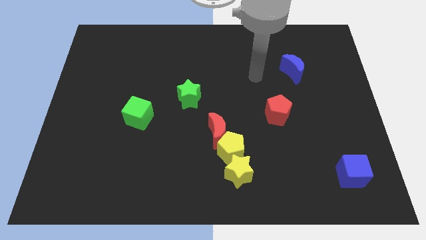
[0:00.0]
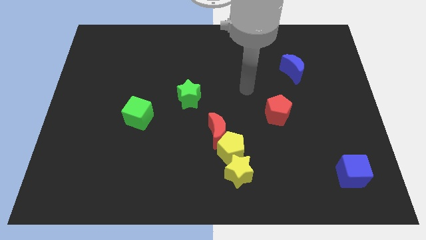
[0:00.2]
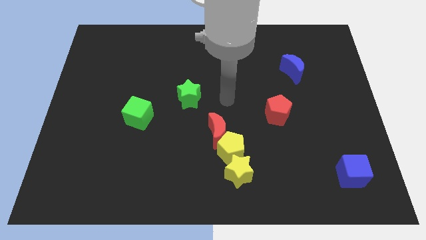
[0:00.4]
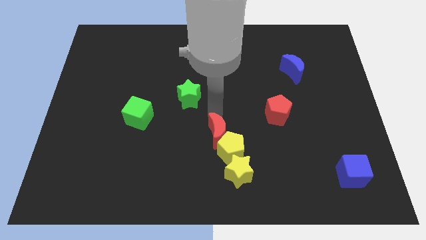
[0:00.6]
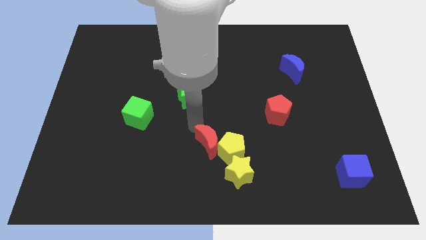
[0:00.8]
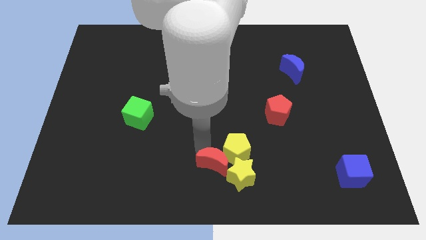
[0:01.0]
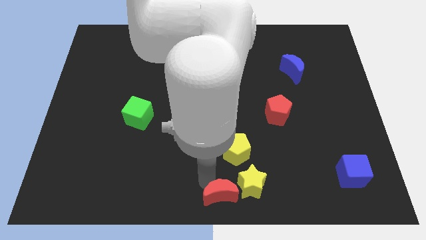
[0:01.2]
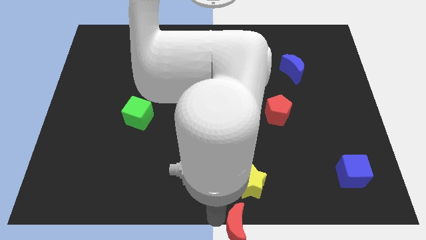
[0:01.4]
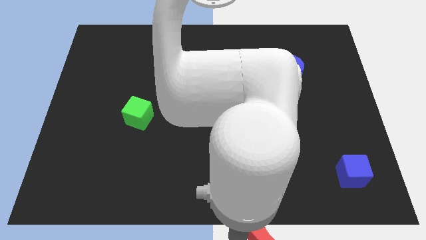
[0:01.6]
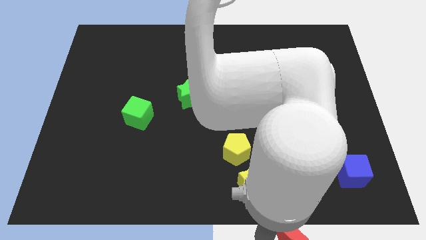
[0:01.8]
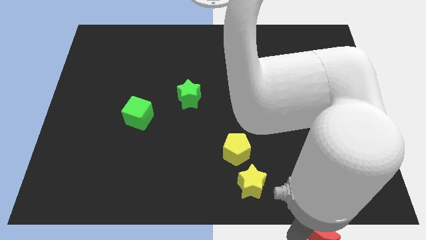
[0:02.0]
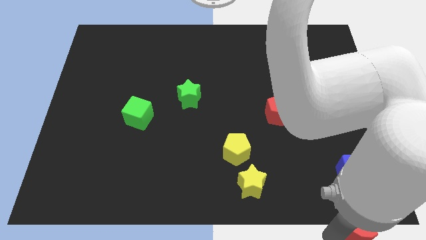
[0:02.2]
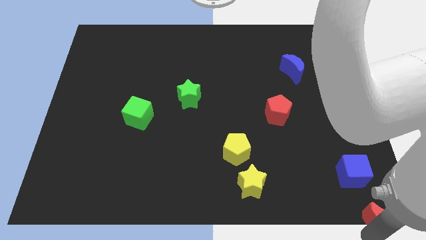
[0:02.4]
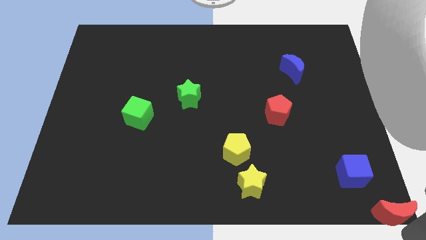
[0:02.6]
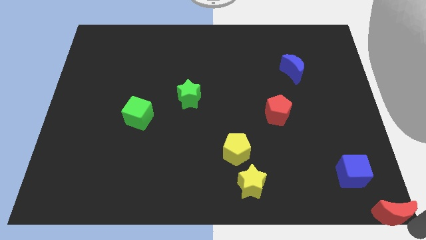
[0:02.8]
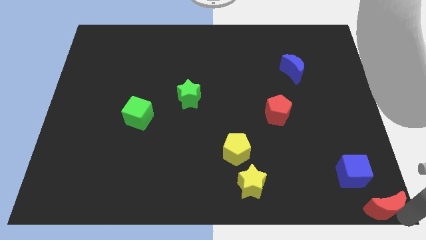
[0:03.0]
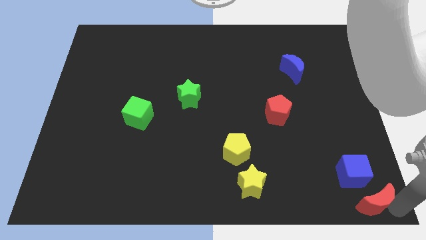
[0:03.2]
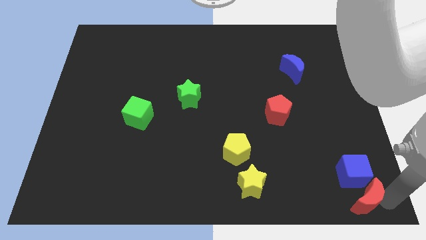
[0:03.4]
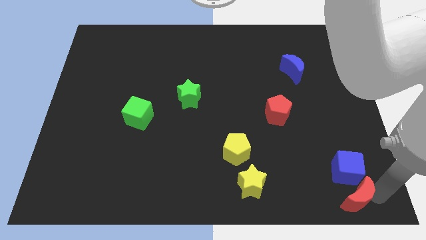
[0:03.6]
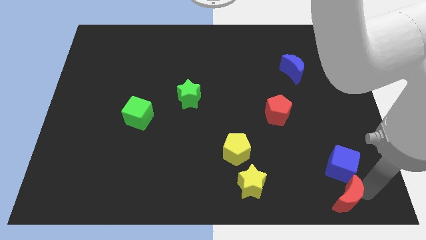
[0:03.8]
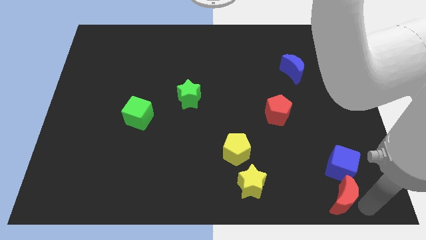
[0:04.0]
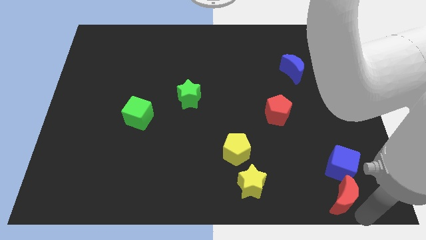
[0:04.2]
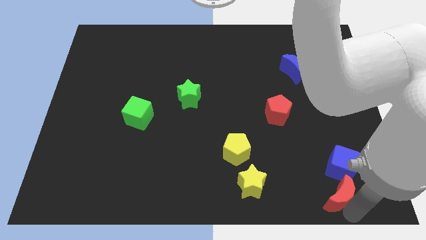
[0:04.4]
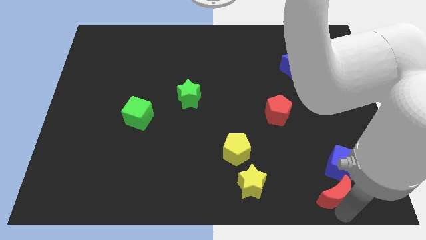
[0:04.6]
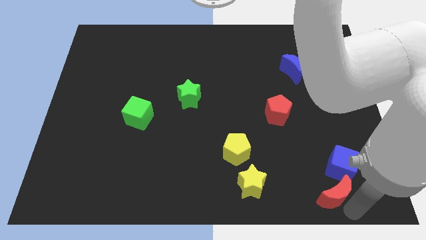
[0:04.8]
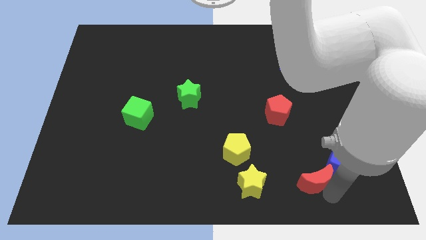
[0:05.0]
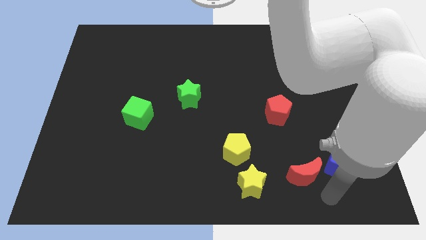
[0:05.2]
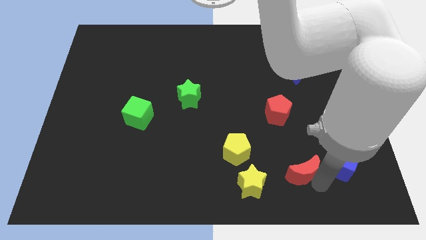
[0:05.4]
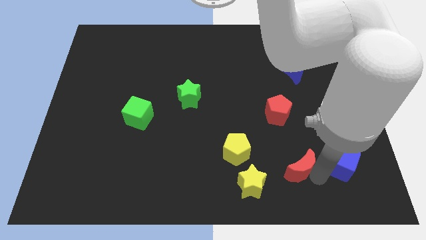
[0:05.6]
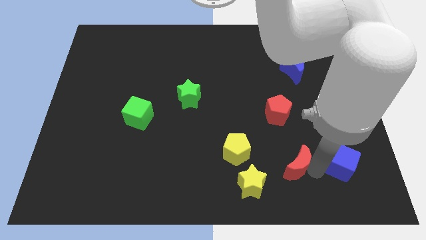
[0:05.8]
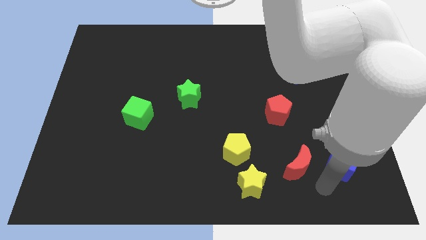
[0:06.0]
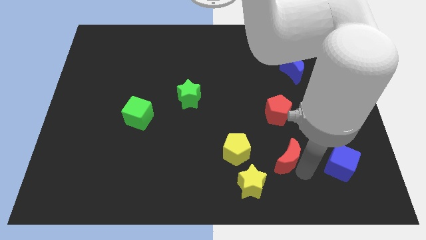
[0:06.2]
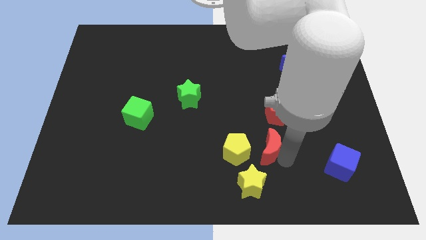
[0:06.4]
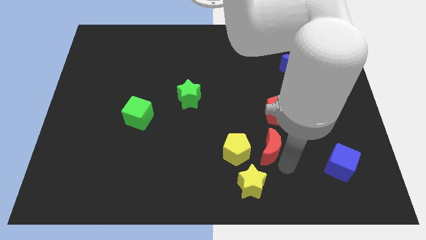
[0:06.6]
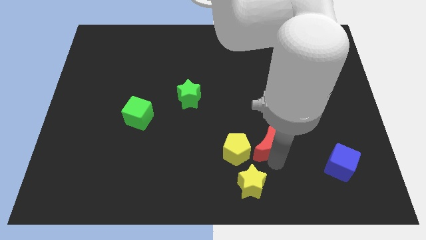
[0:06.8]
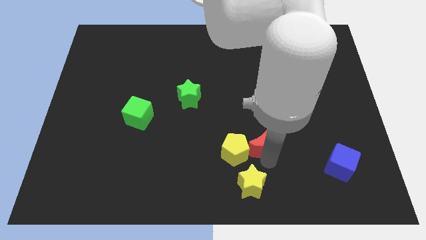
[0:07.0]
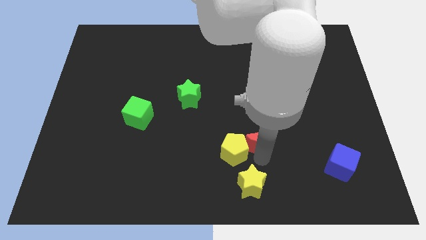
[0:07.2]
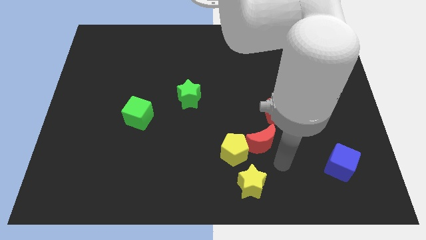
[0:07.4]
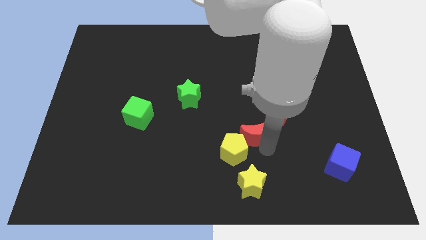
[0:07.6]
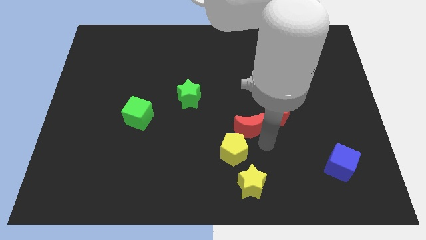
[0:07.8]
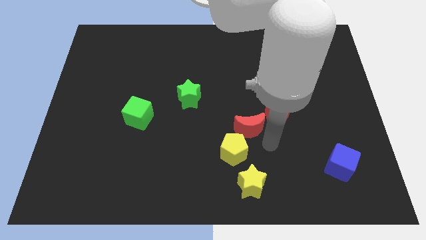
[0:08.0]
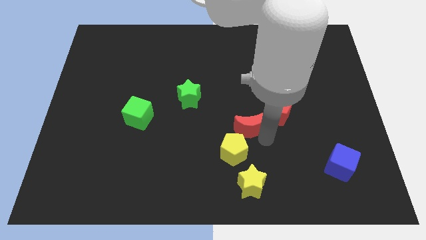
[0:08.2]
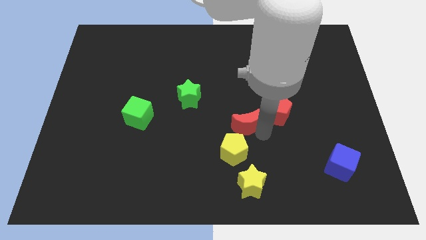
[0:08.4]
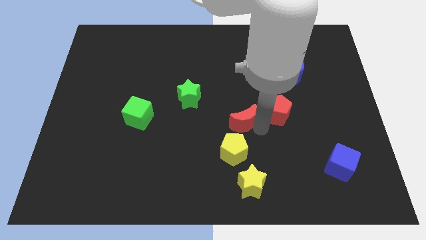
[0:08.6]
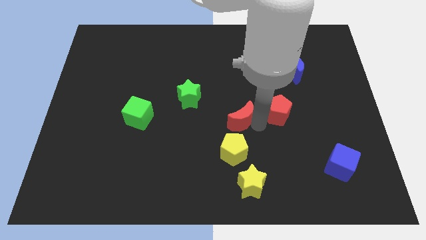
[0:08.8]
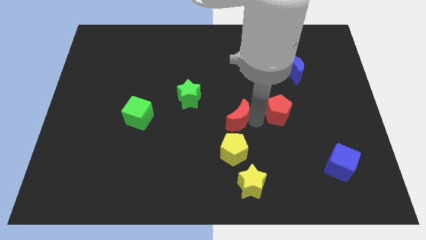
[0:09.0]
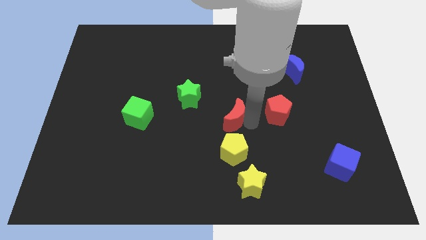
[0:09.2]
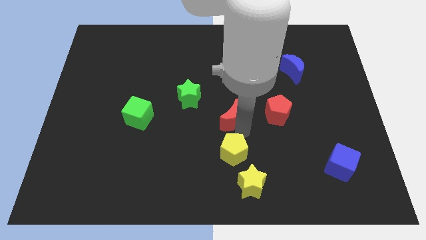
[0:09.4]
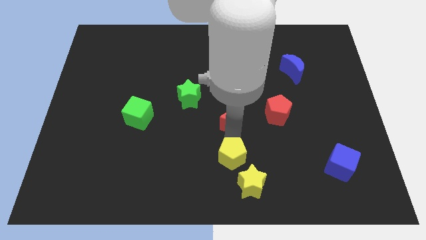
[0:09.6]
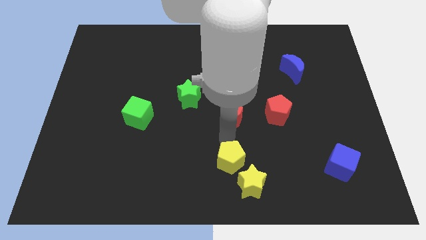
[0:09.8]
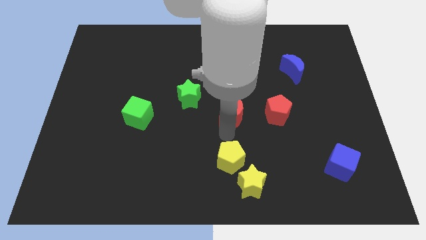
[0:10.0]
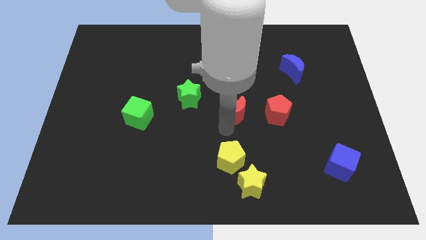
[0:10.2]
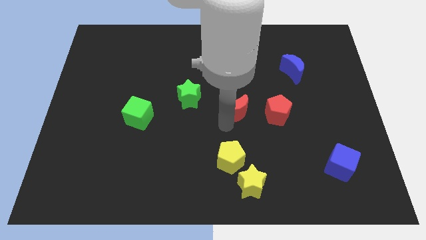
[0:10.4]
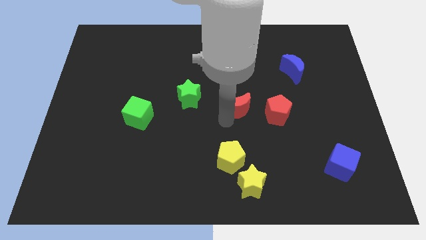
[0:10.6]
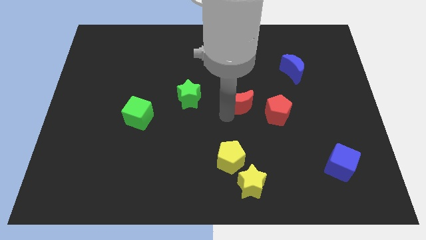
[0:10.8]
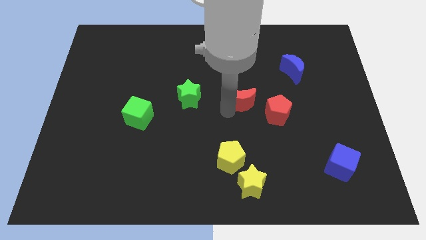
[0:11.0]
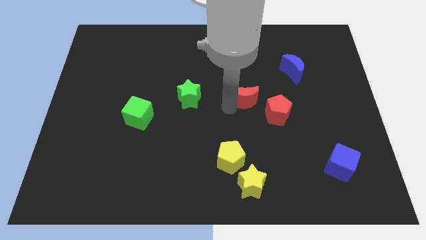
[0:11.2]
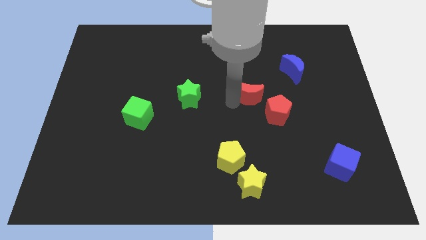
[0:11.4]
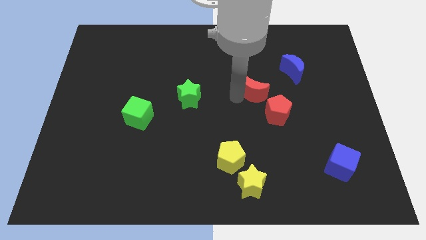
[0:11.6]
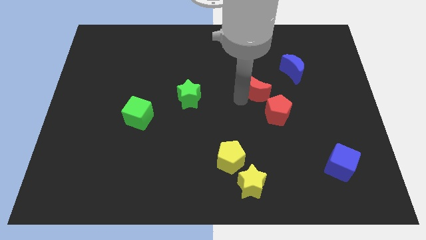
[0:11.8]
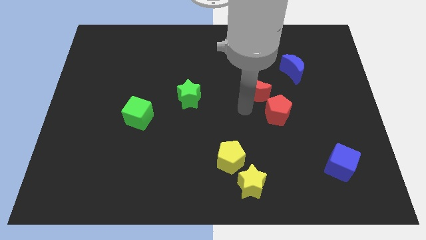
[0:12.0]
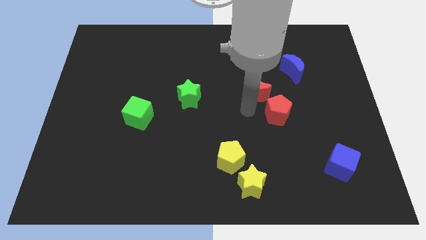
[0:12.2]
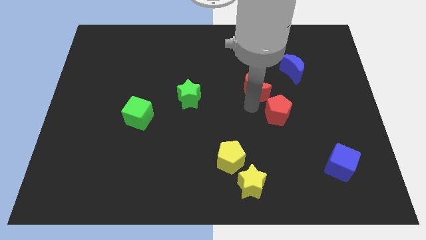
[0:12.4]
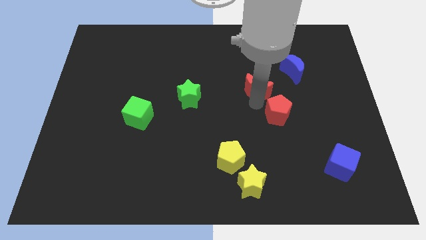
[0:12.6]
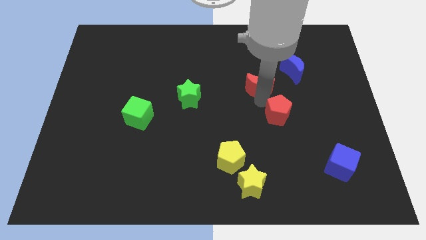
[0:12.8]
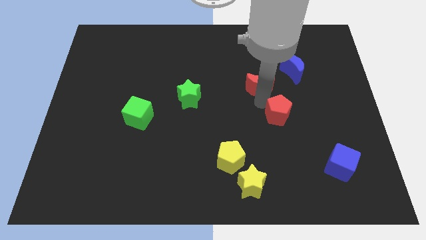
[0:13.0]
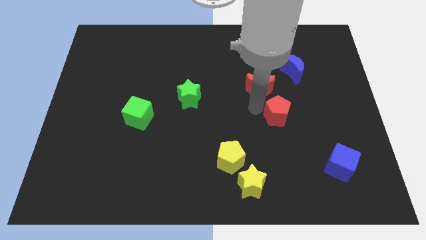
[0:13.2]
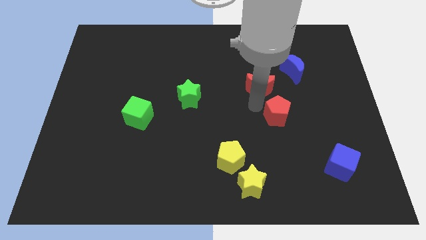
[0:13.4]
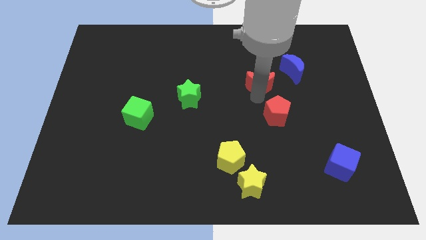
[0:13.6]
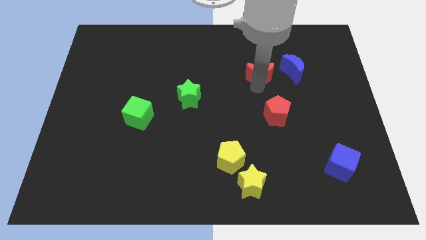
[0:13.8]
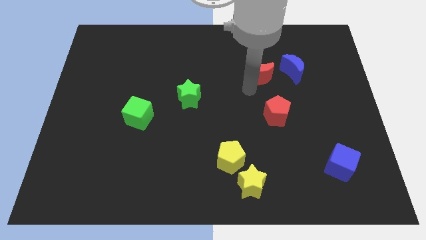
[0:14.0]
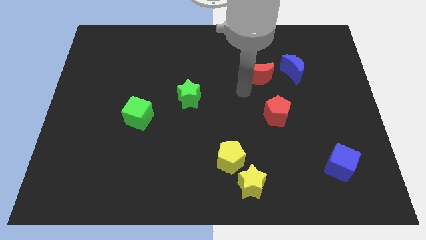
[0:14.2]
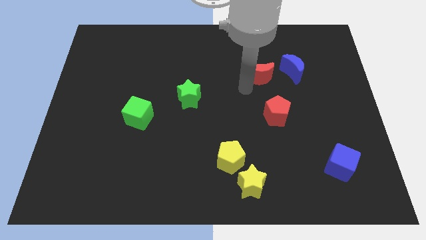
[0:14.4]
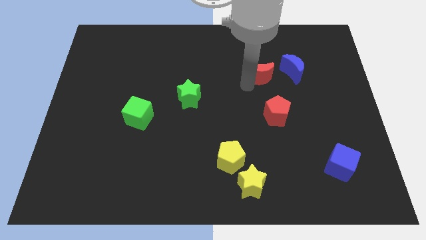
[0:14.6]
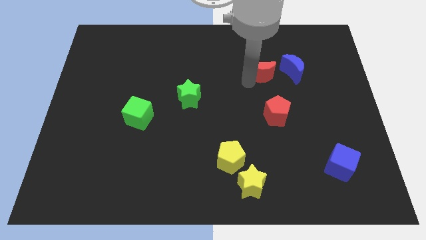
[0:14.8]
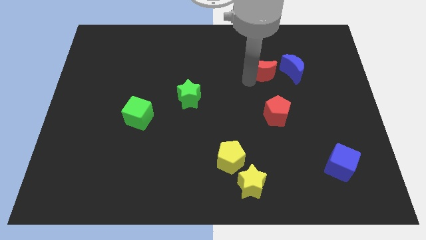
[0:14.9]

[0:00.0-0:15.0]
slide the red moon up and then to the right

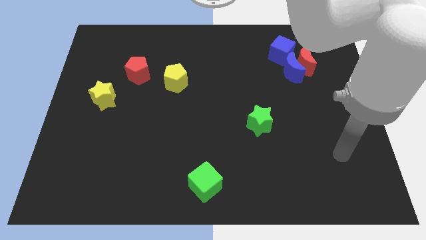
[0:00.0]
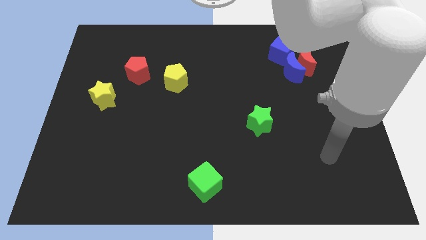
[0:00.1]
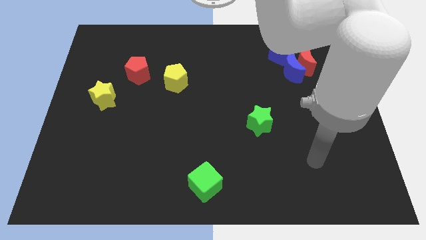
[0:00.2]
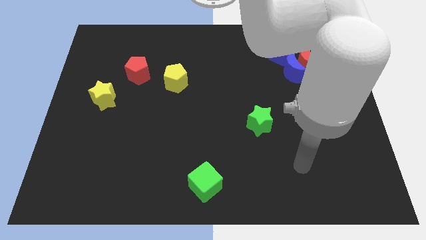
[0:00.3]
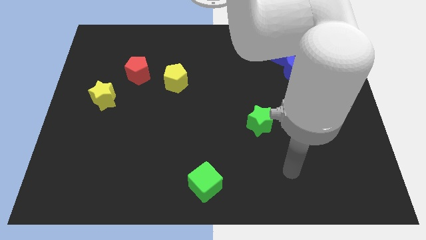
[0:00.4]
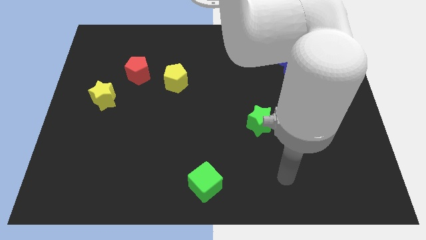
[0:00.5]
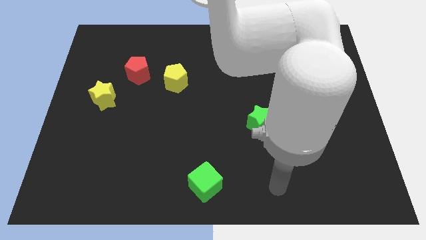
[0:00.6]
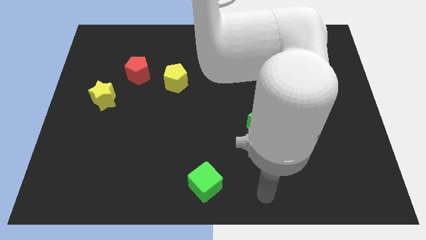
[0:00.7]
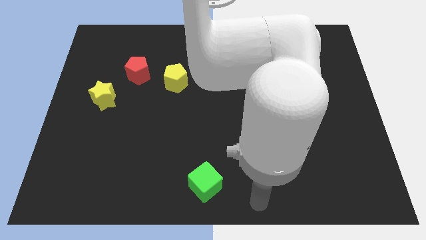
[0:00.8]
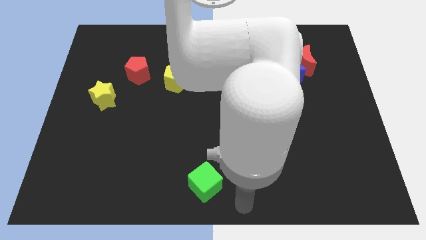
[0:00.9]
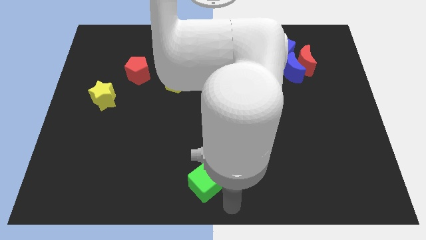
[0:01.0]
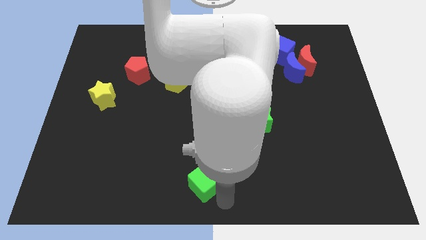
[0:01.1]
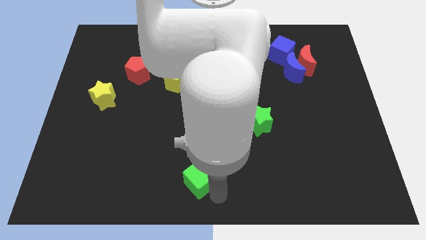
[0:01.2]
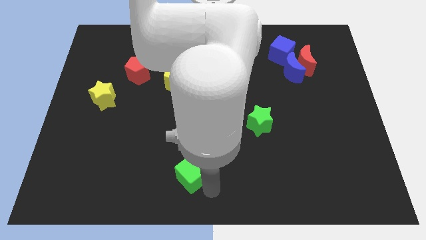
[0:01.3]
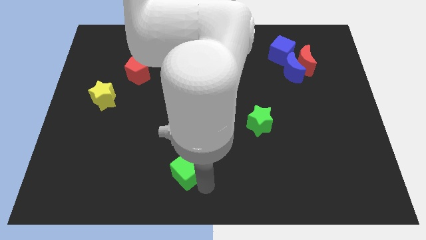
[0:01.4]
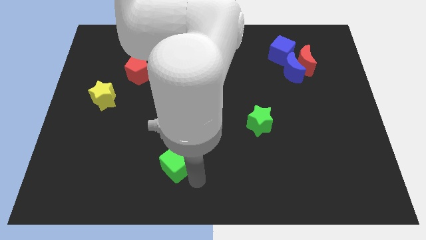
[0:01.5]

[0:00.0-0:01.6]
push the green cube a little bit upwards and then left
